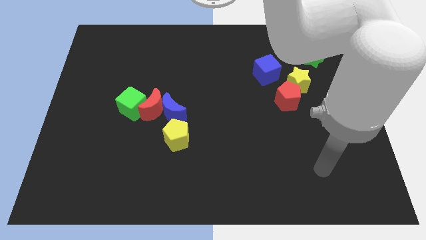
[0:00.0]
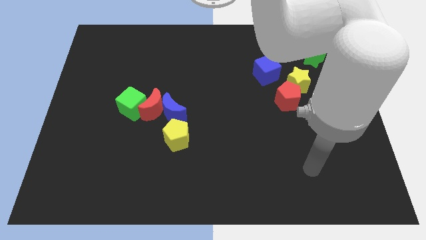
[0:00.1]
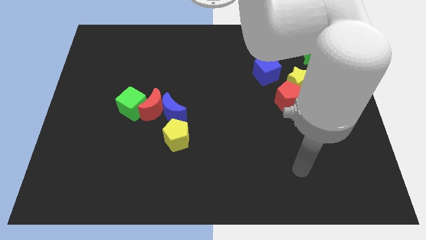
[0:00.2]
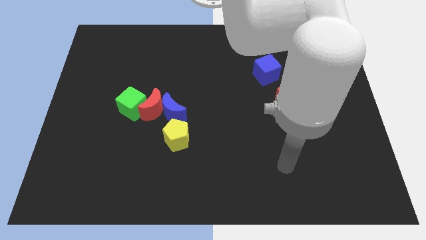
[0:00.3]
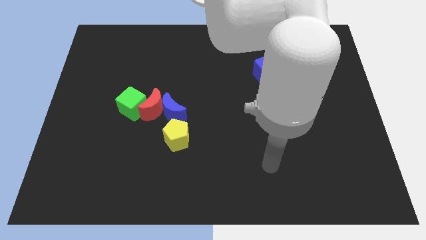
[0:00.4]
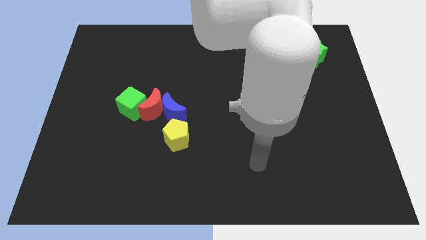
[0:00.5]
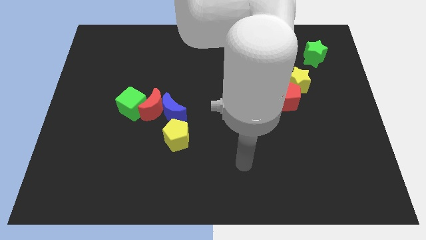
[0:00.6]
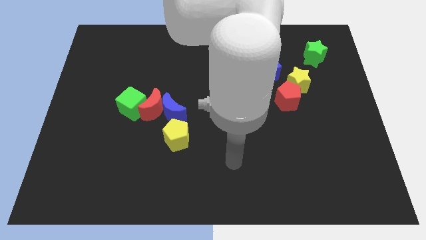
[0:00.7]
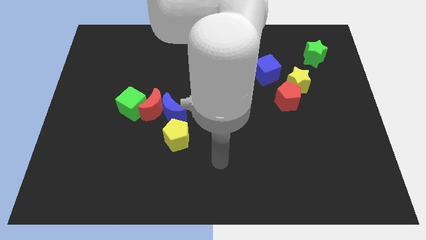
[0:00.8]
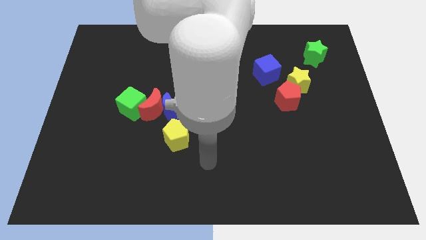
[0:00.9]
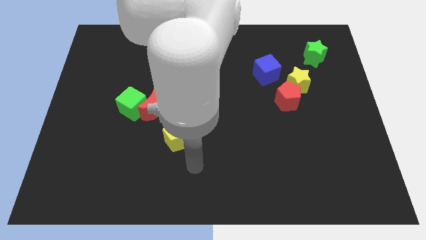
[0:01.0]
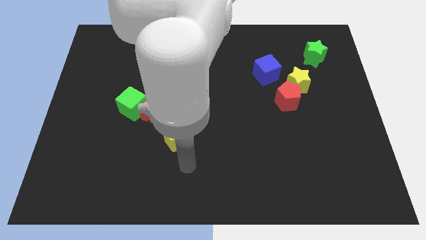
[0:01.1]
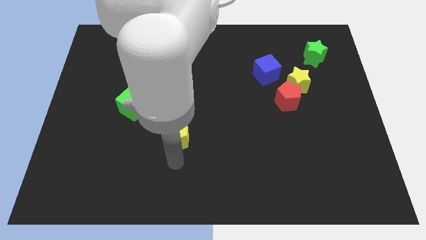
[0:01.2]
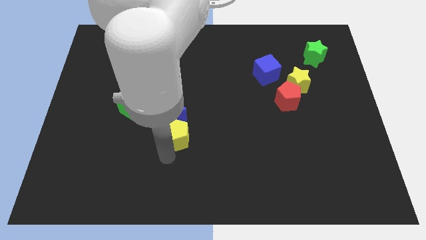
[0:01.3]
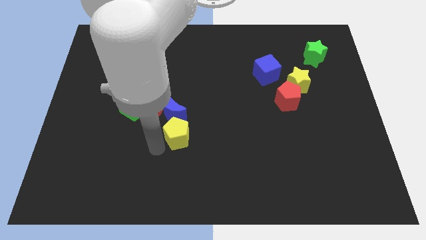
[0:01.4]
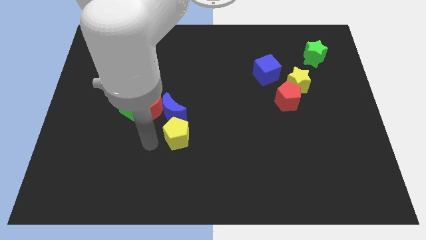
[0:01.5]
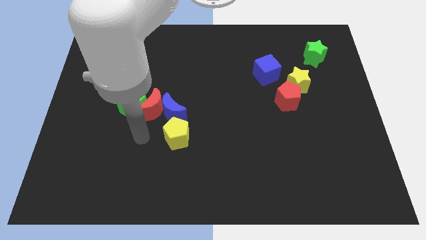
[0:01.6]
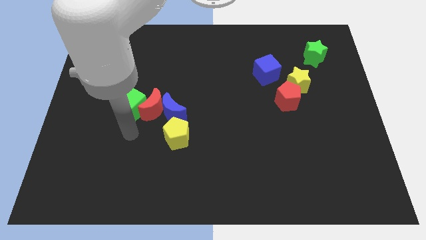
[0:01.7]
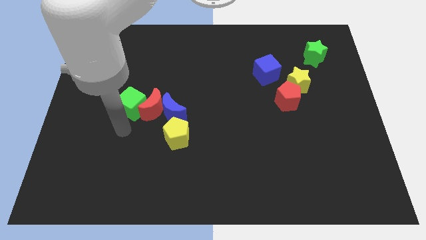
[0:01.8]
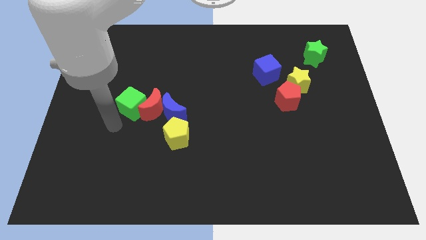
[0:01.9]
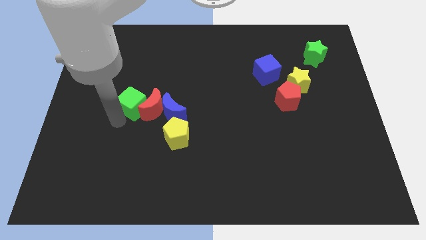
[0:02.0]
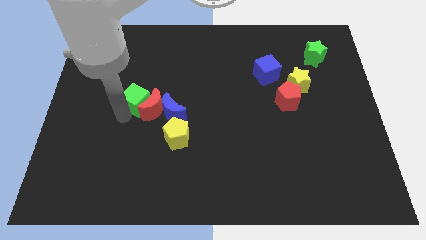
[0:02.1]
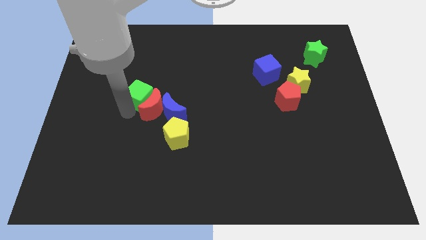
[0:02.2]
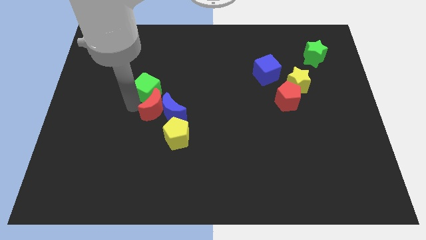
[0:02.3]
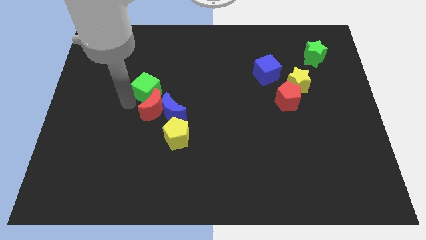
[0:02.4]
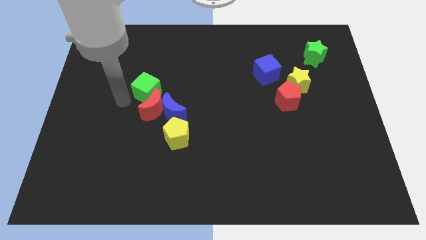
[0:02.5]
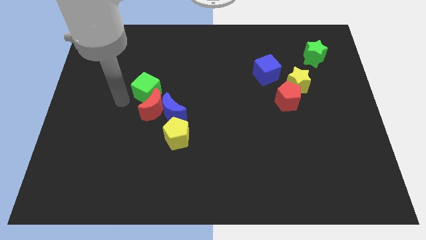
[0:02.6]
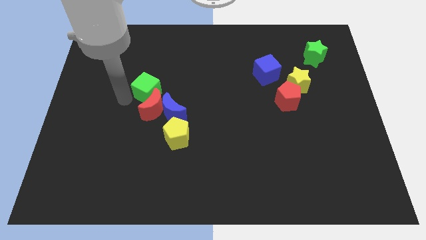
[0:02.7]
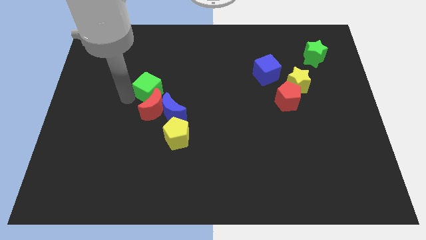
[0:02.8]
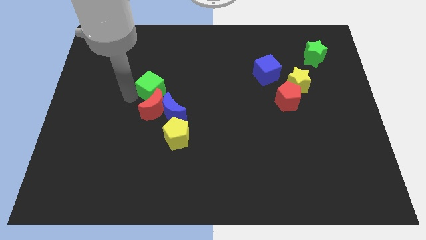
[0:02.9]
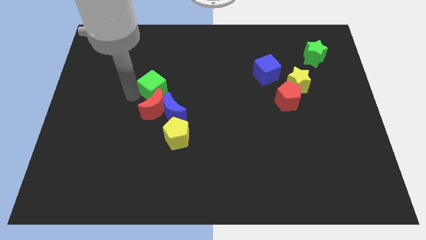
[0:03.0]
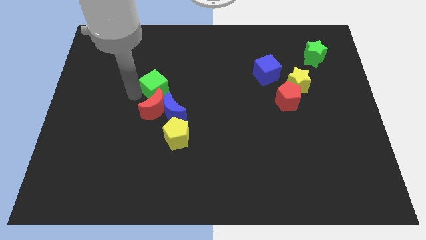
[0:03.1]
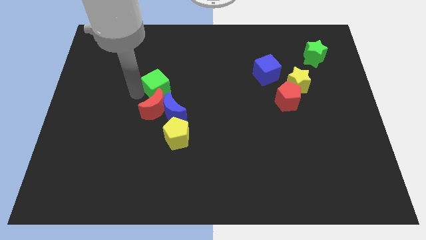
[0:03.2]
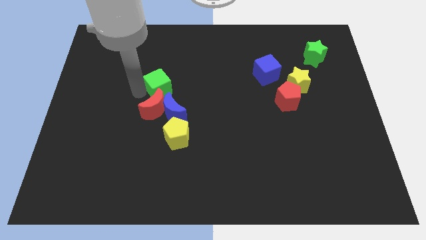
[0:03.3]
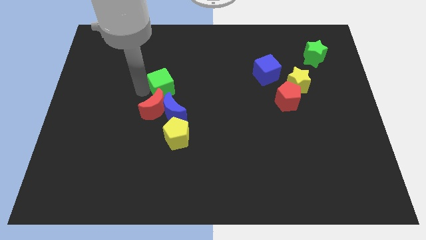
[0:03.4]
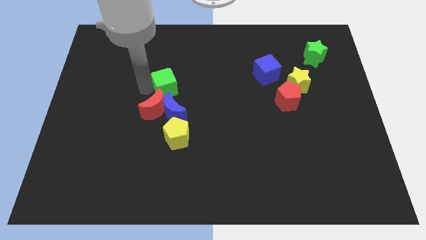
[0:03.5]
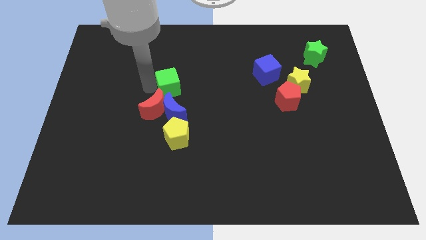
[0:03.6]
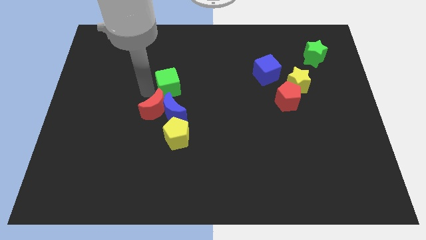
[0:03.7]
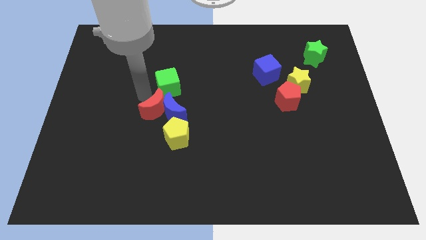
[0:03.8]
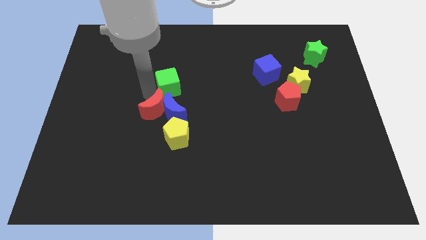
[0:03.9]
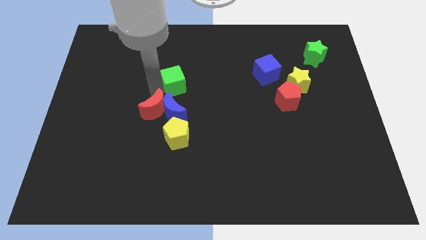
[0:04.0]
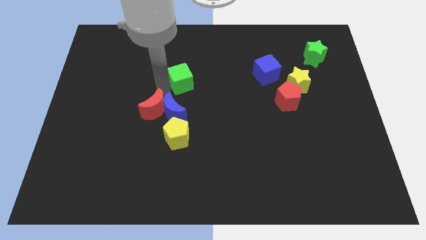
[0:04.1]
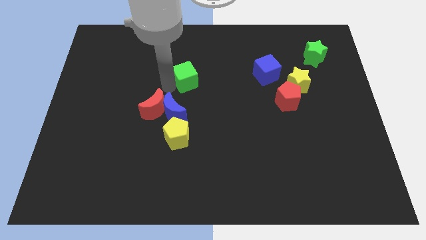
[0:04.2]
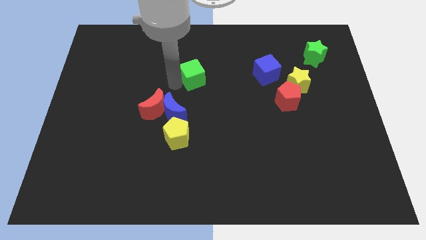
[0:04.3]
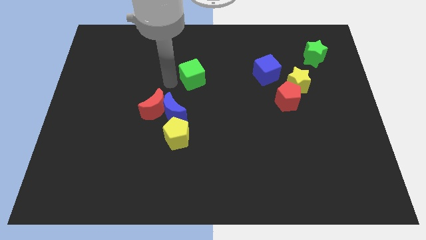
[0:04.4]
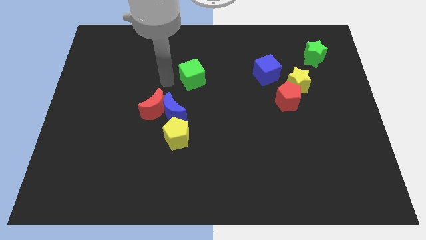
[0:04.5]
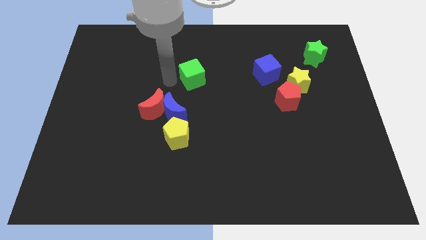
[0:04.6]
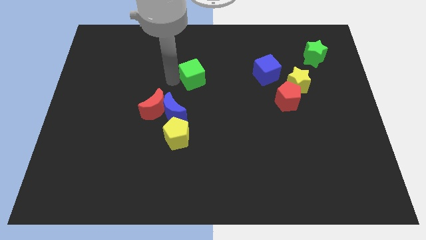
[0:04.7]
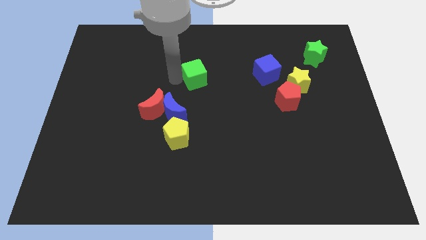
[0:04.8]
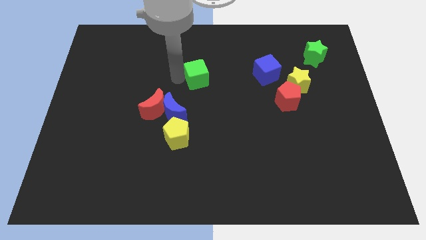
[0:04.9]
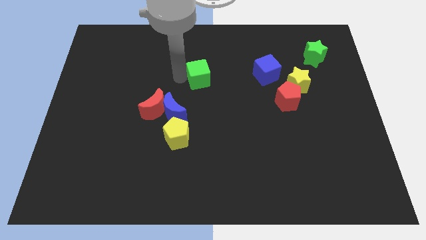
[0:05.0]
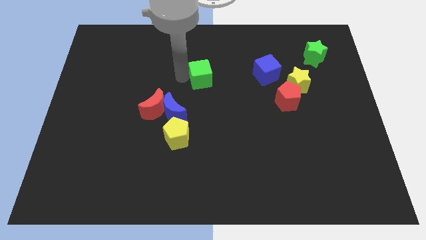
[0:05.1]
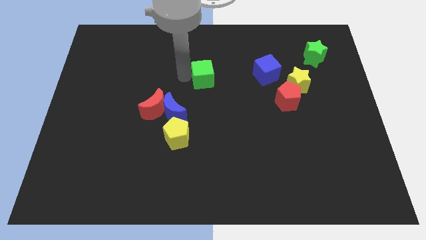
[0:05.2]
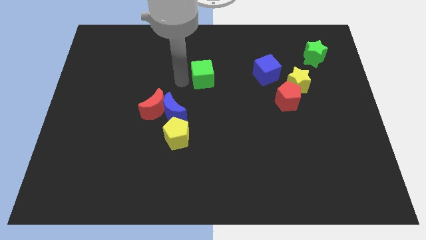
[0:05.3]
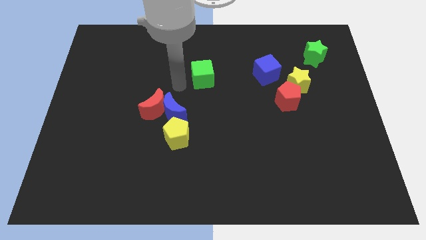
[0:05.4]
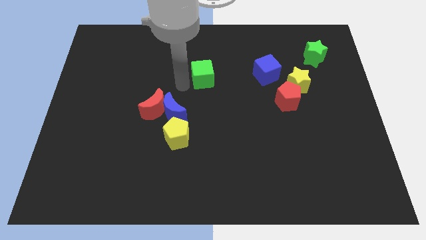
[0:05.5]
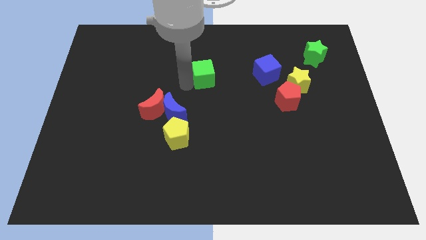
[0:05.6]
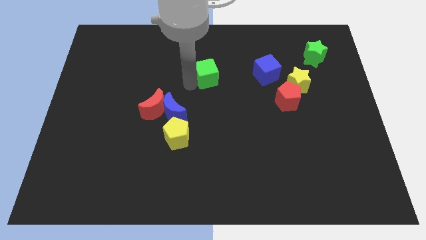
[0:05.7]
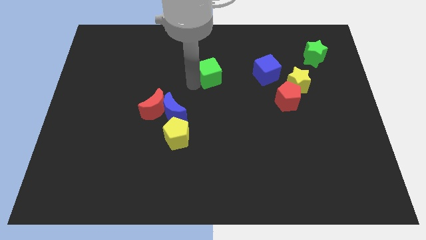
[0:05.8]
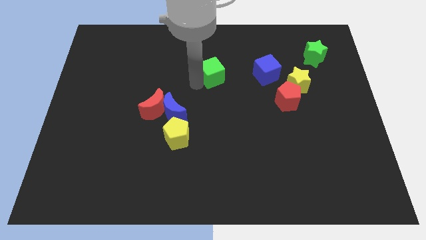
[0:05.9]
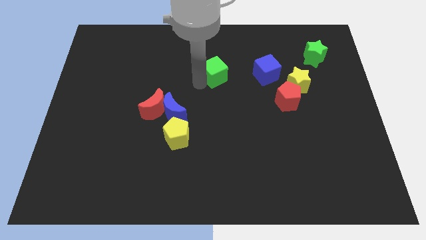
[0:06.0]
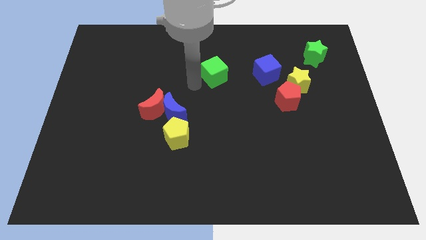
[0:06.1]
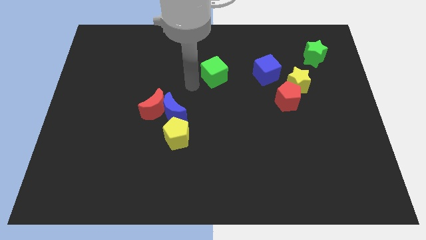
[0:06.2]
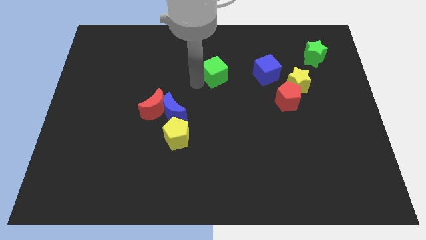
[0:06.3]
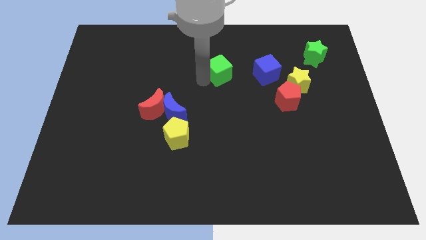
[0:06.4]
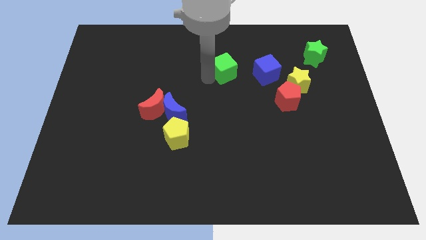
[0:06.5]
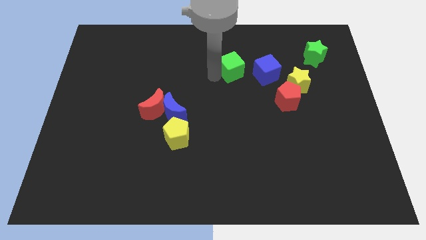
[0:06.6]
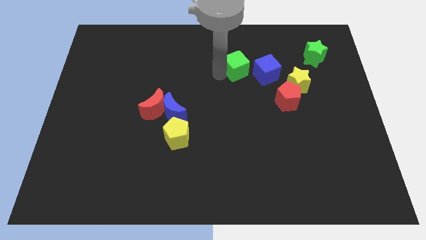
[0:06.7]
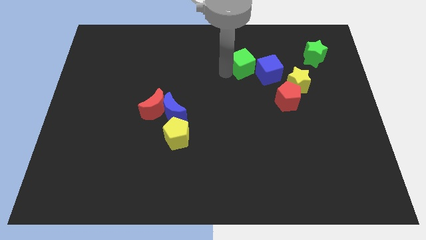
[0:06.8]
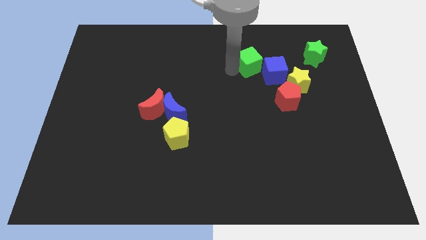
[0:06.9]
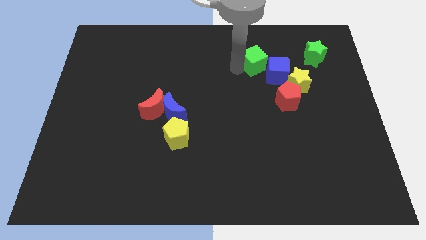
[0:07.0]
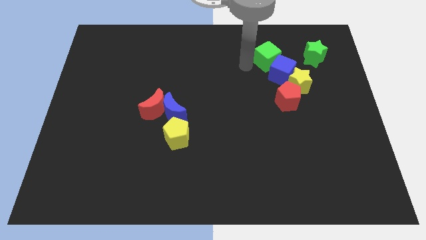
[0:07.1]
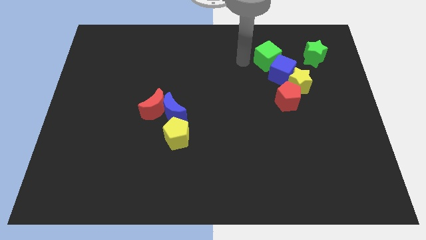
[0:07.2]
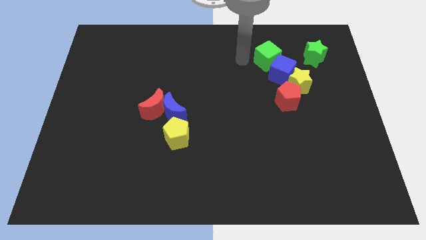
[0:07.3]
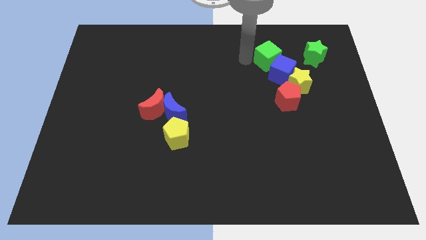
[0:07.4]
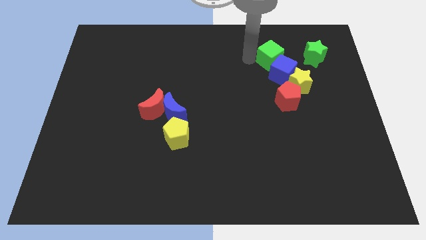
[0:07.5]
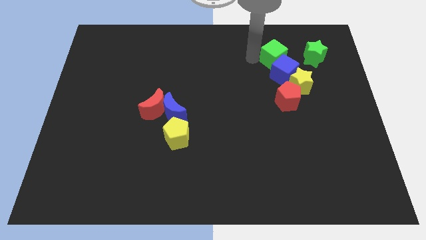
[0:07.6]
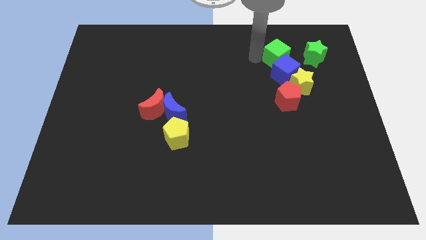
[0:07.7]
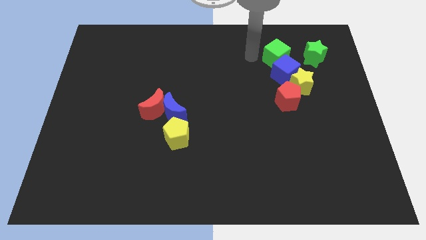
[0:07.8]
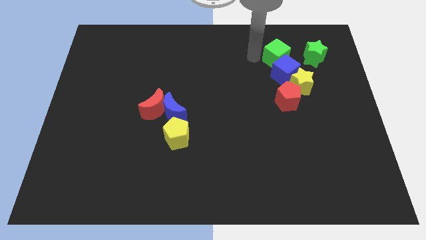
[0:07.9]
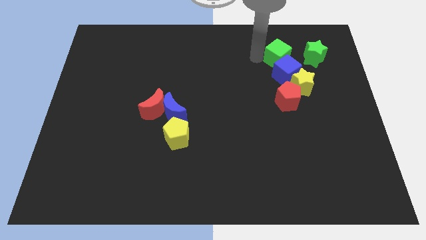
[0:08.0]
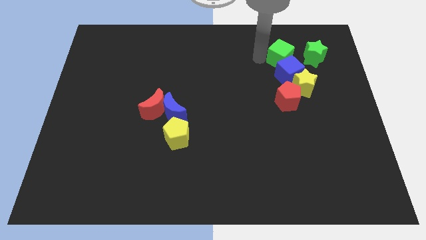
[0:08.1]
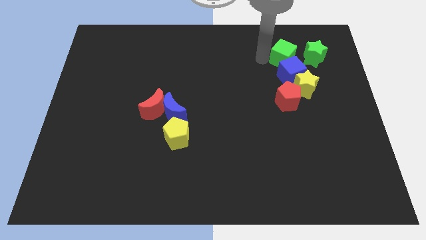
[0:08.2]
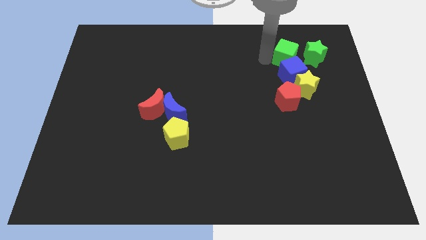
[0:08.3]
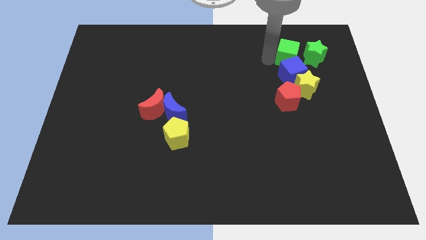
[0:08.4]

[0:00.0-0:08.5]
slide the green cube to the top right of the blue cube
